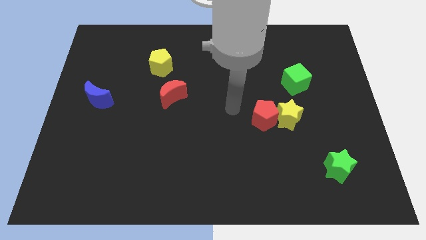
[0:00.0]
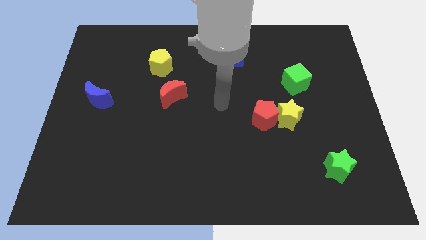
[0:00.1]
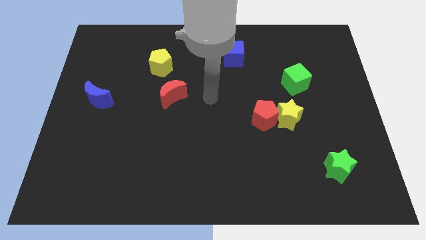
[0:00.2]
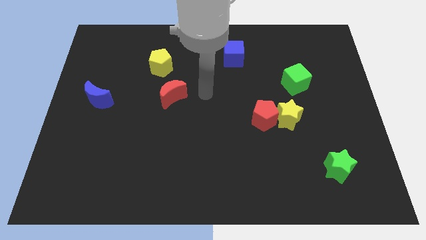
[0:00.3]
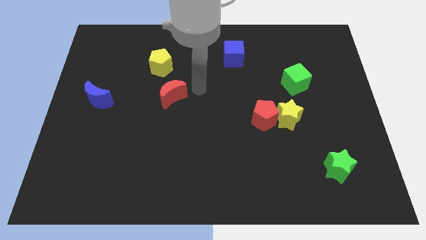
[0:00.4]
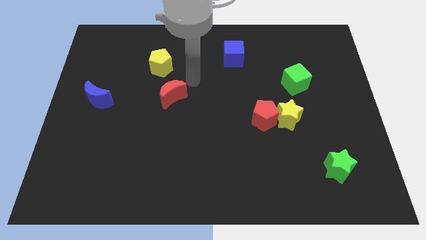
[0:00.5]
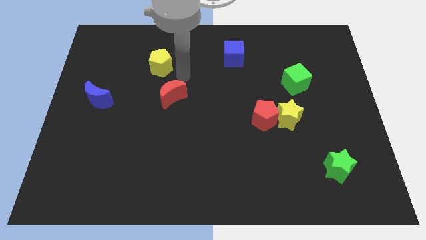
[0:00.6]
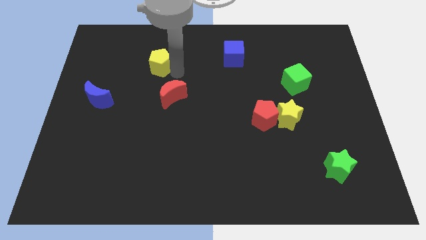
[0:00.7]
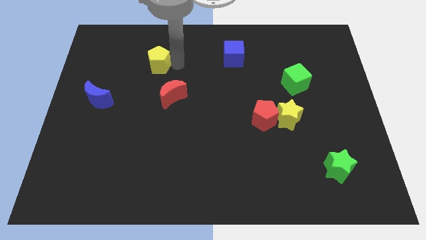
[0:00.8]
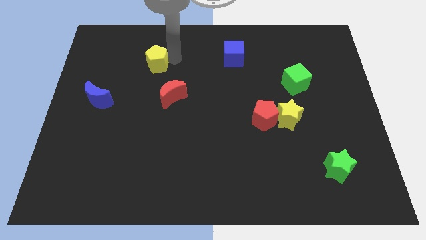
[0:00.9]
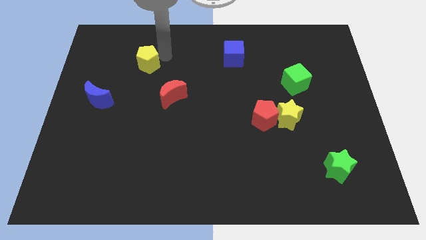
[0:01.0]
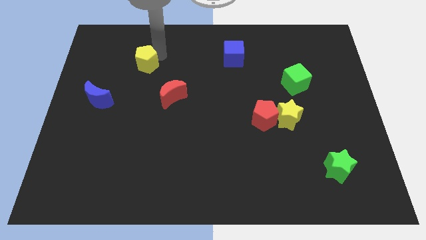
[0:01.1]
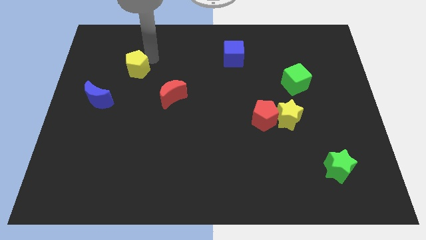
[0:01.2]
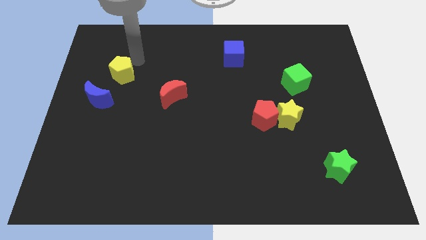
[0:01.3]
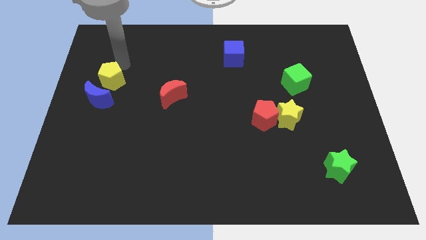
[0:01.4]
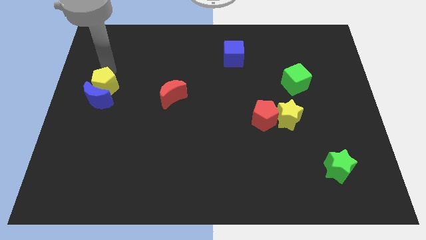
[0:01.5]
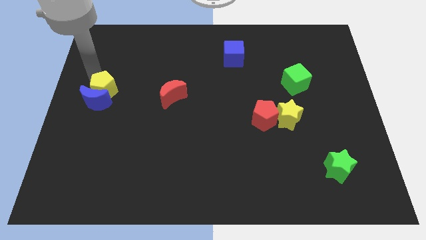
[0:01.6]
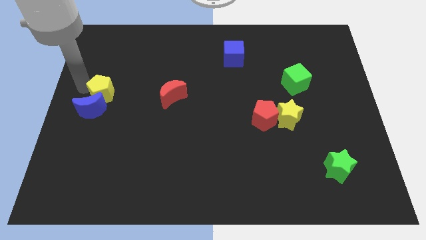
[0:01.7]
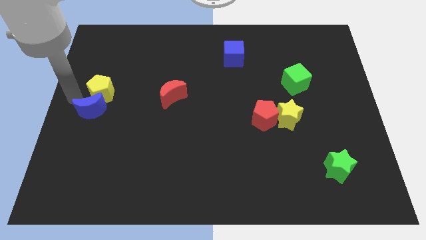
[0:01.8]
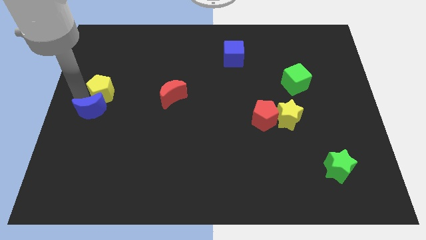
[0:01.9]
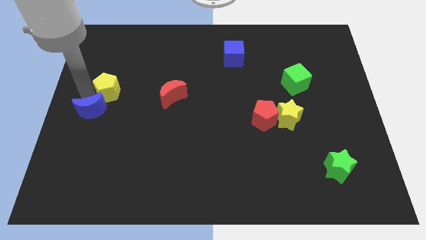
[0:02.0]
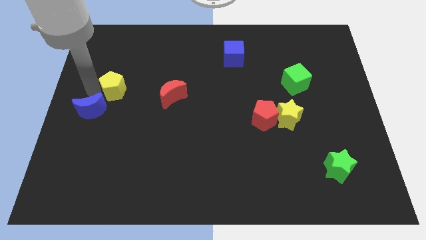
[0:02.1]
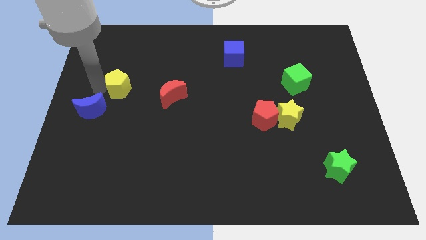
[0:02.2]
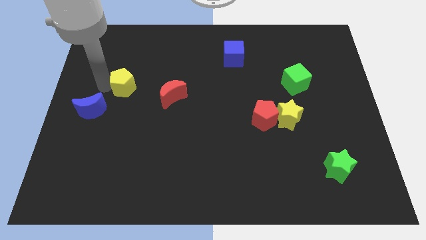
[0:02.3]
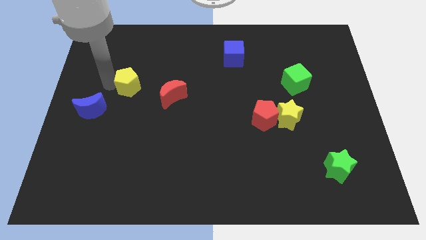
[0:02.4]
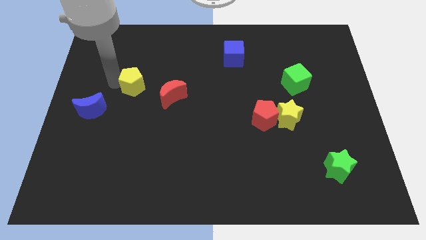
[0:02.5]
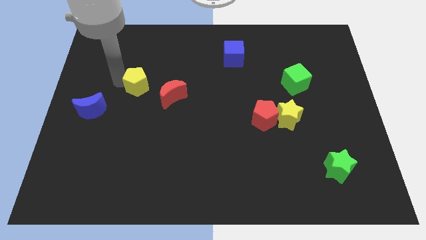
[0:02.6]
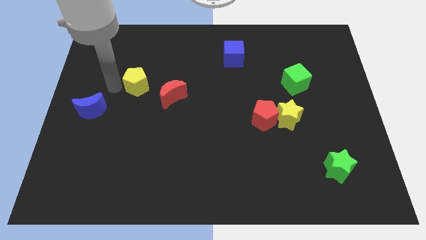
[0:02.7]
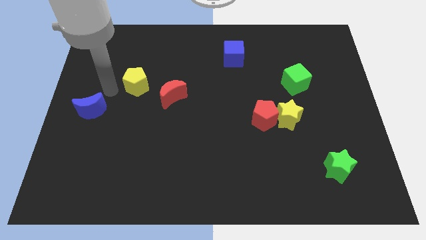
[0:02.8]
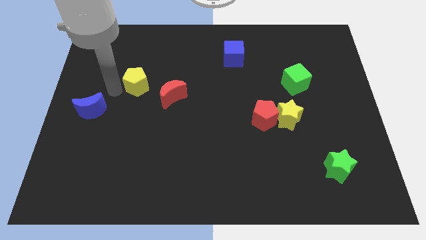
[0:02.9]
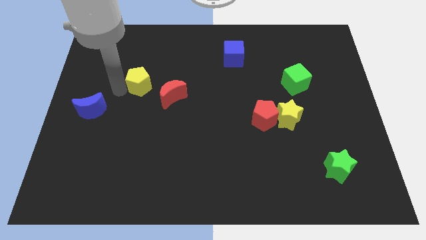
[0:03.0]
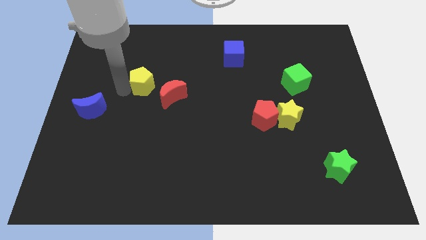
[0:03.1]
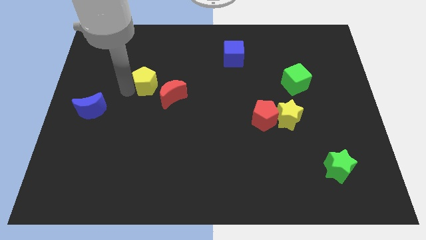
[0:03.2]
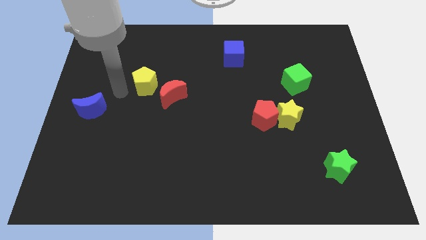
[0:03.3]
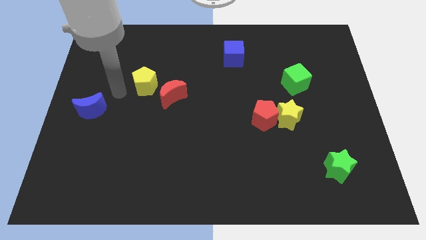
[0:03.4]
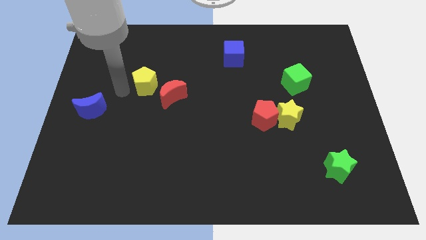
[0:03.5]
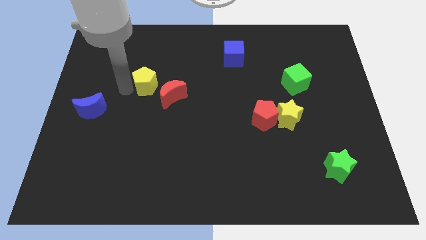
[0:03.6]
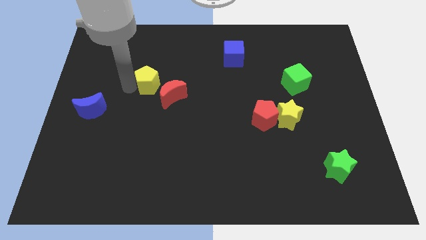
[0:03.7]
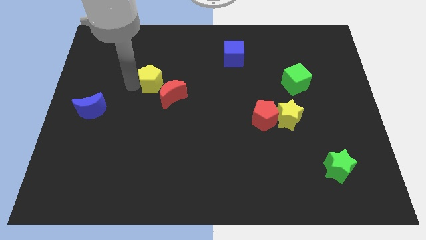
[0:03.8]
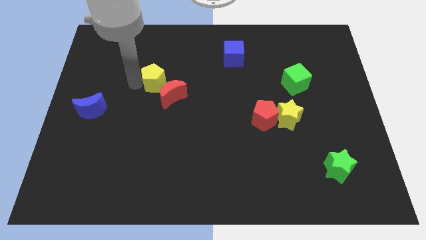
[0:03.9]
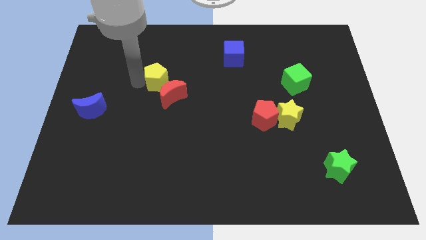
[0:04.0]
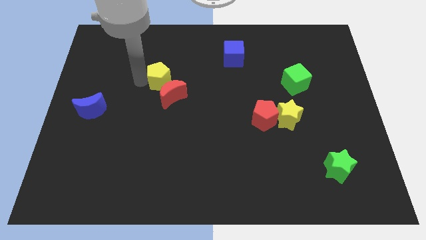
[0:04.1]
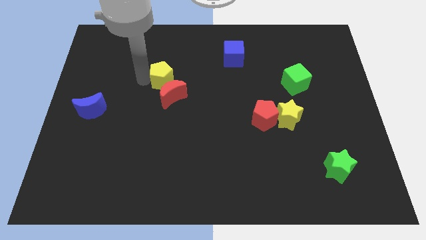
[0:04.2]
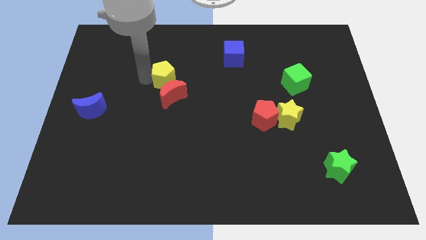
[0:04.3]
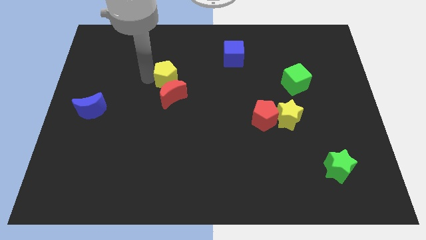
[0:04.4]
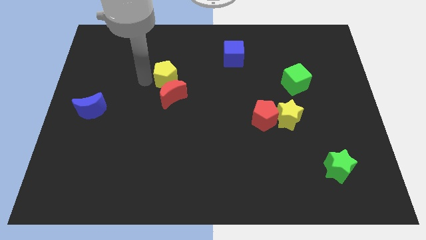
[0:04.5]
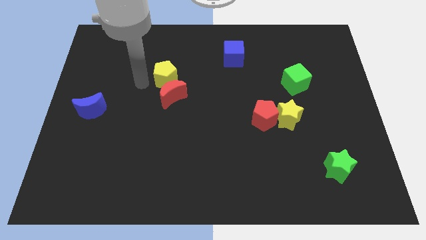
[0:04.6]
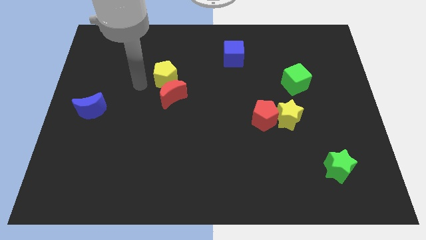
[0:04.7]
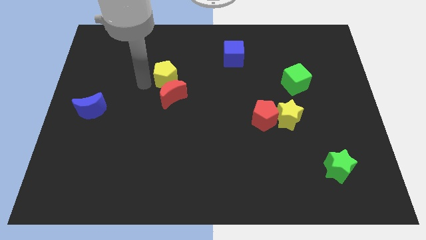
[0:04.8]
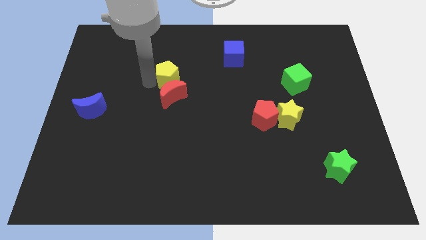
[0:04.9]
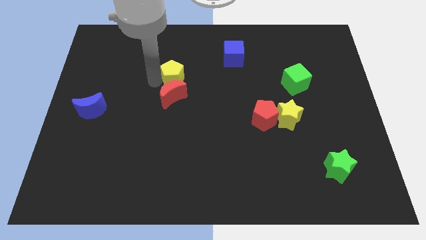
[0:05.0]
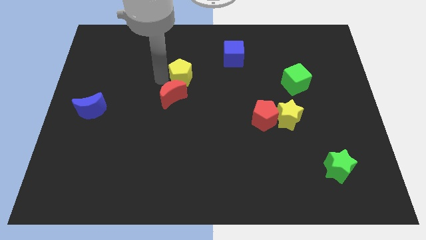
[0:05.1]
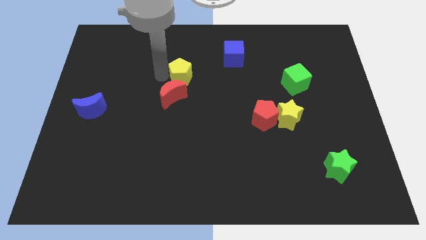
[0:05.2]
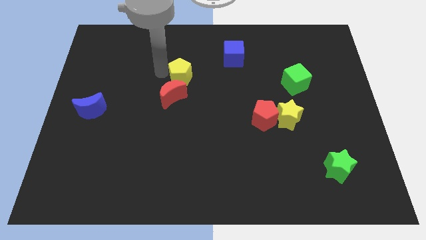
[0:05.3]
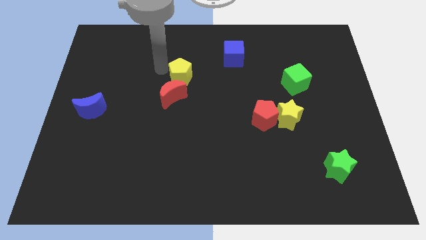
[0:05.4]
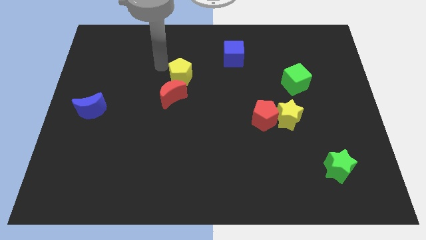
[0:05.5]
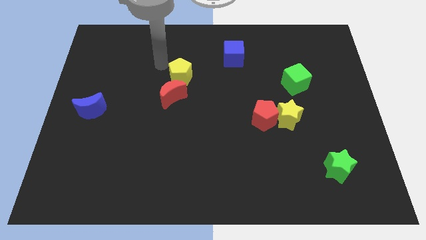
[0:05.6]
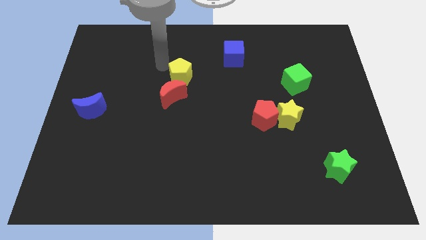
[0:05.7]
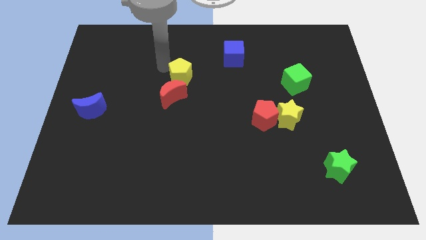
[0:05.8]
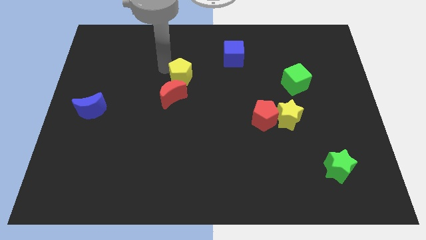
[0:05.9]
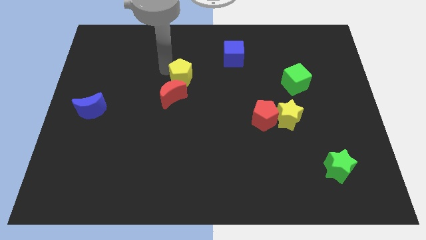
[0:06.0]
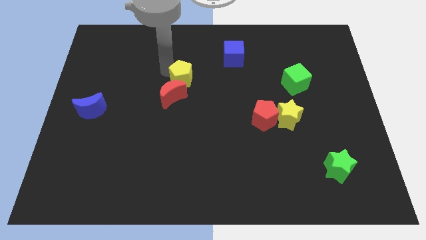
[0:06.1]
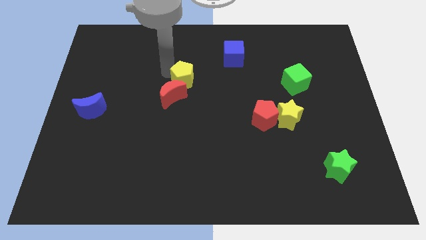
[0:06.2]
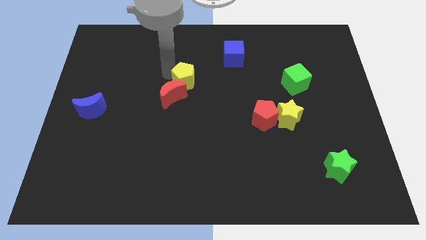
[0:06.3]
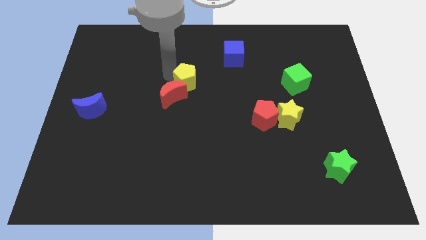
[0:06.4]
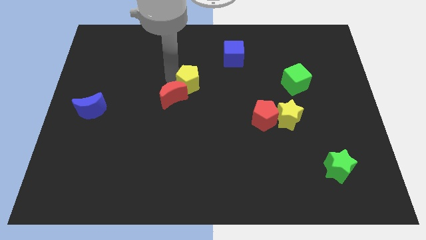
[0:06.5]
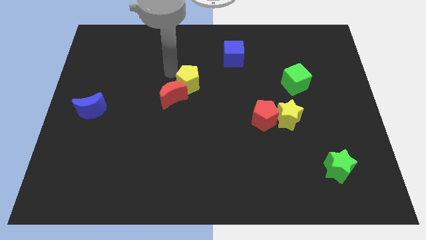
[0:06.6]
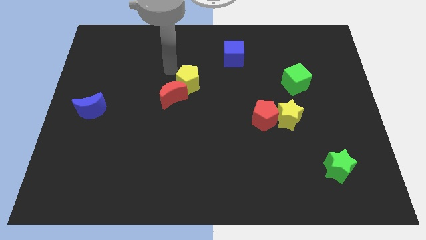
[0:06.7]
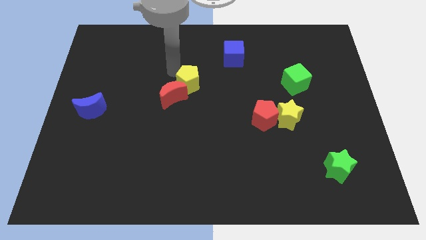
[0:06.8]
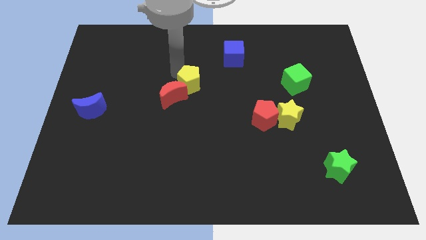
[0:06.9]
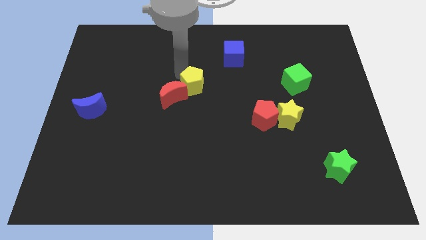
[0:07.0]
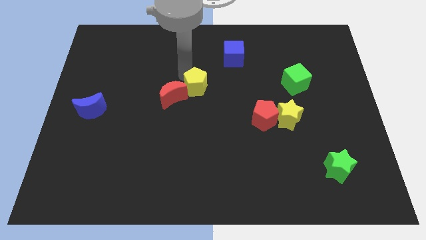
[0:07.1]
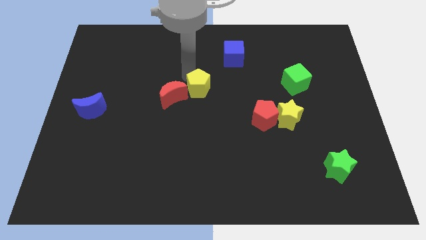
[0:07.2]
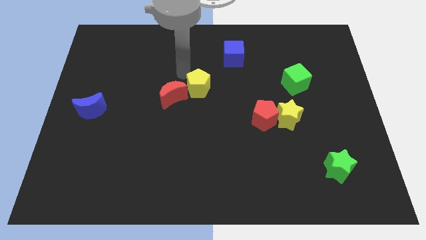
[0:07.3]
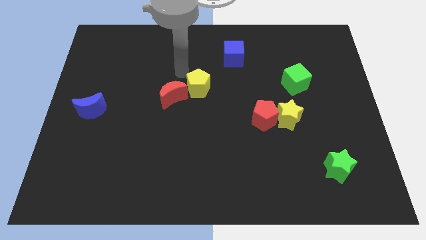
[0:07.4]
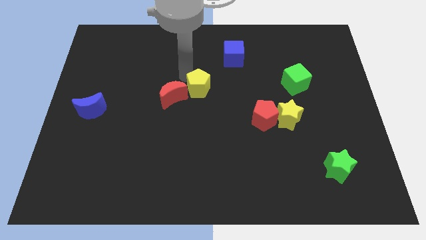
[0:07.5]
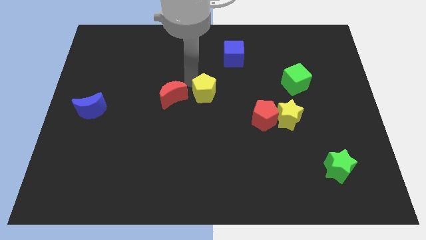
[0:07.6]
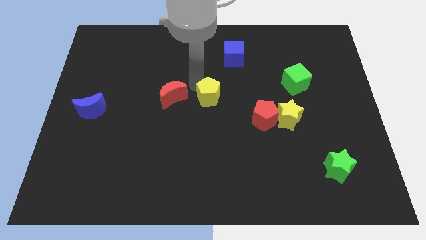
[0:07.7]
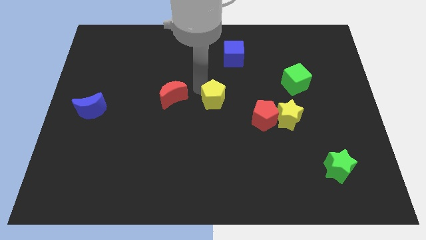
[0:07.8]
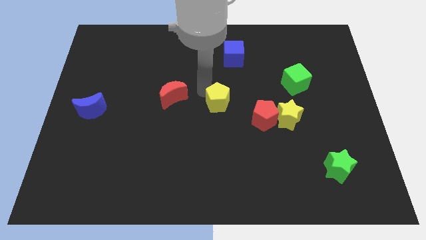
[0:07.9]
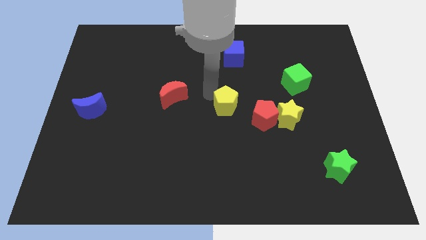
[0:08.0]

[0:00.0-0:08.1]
slide the yellow pentagon downwards and to the right diagonally
